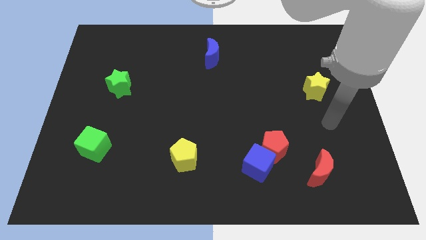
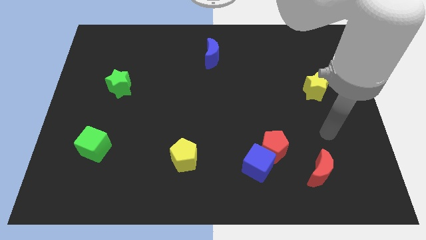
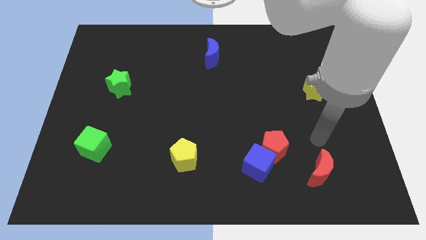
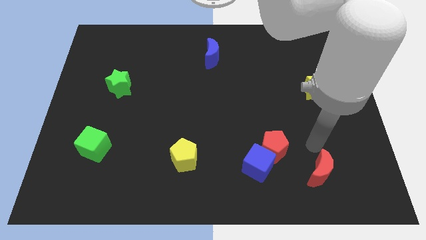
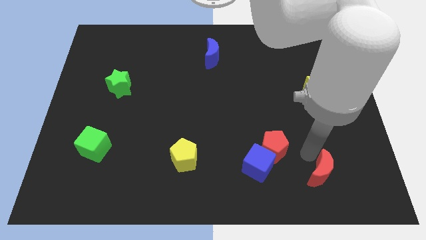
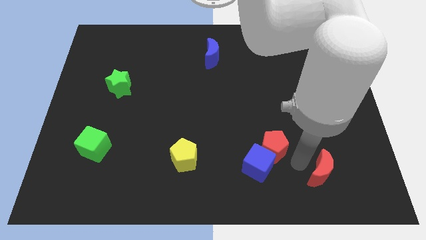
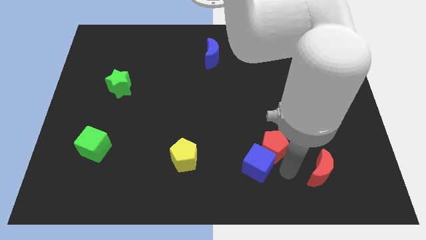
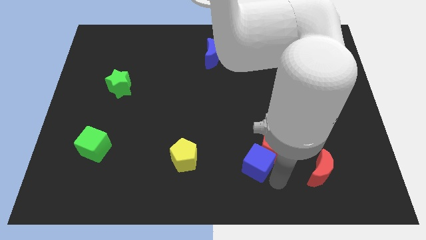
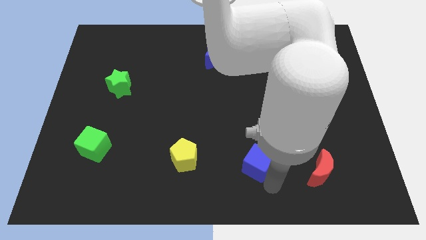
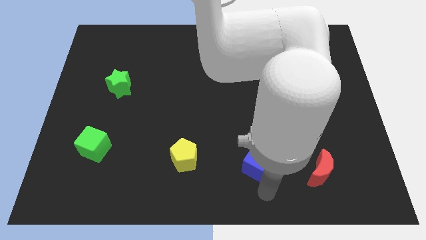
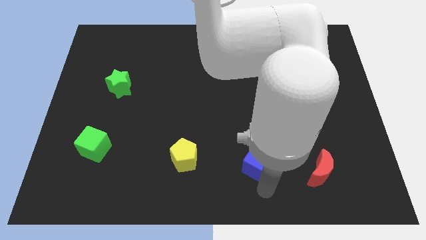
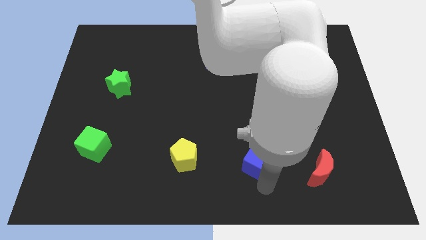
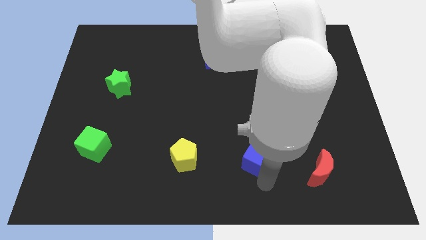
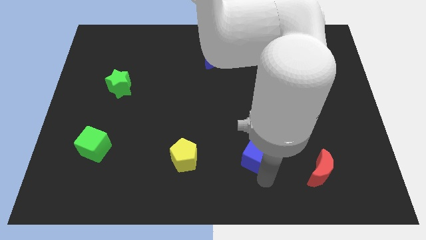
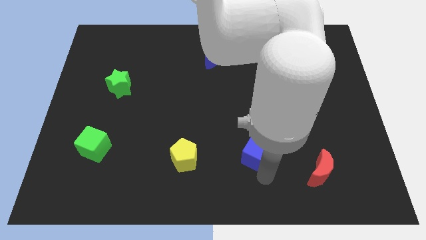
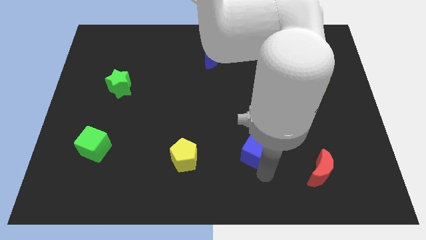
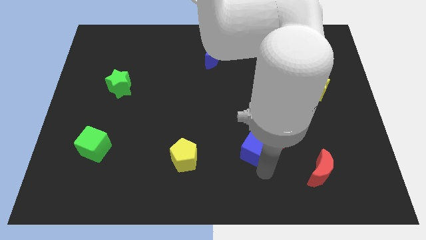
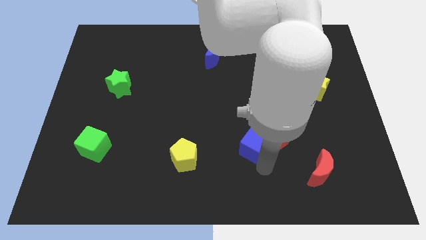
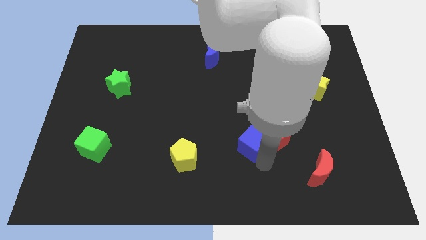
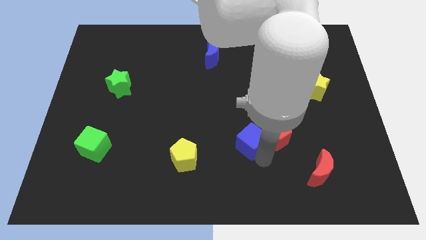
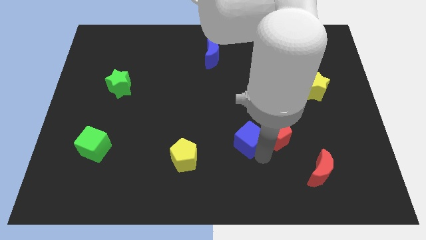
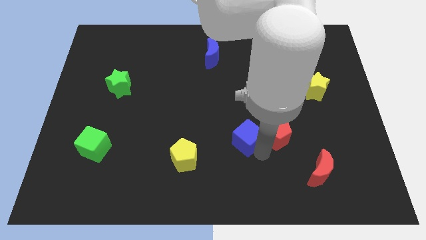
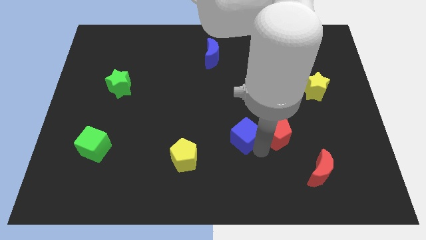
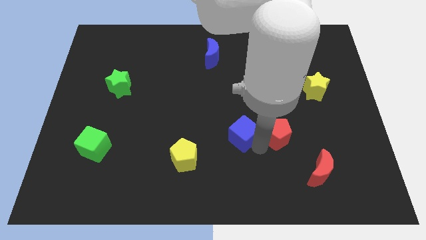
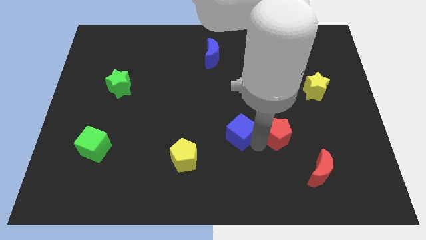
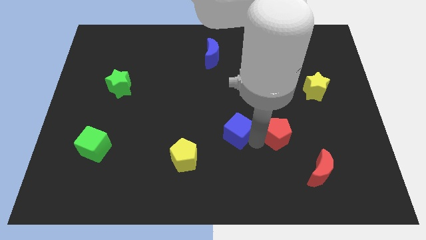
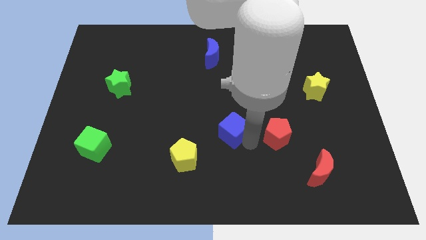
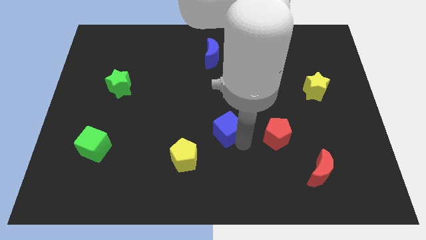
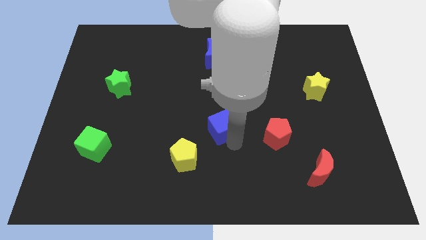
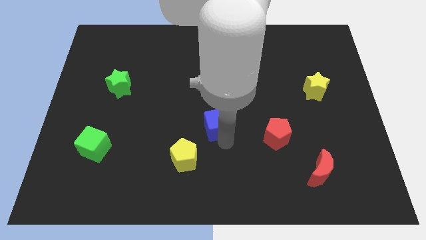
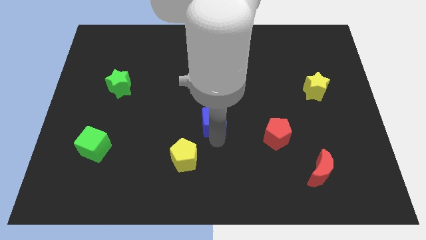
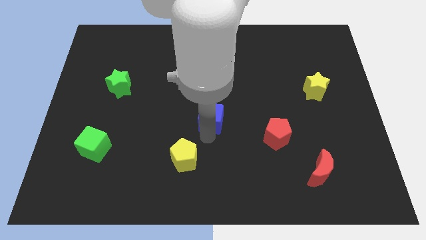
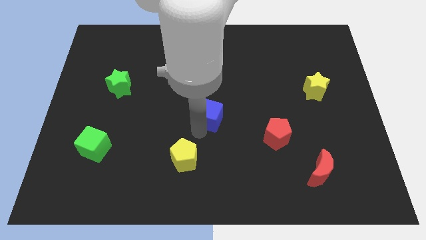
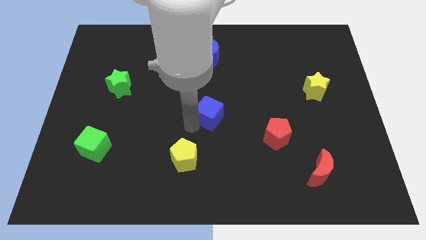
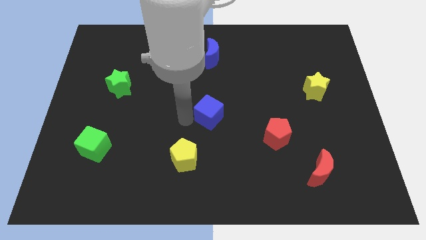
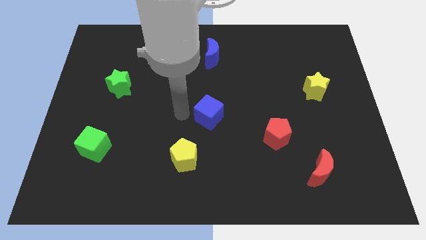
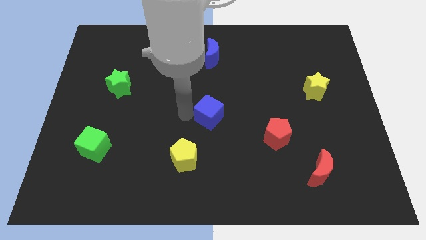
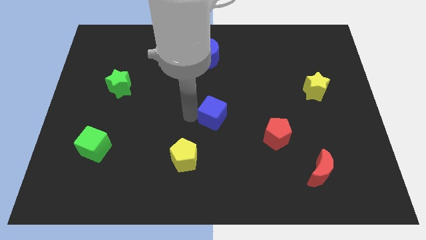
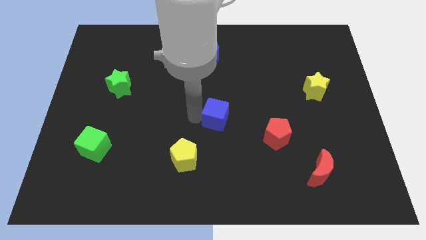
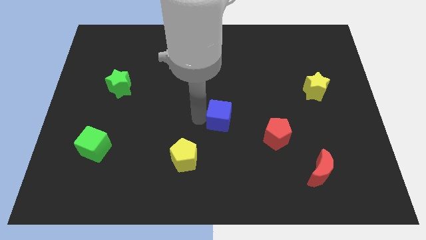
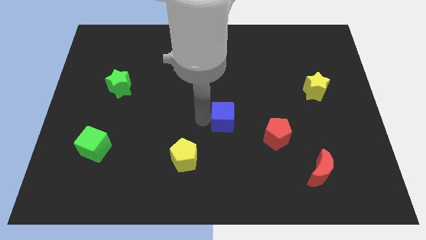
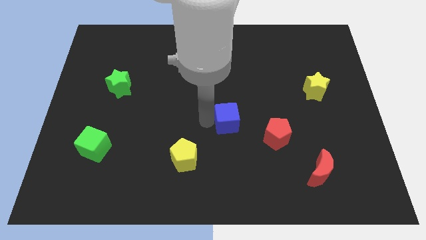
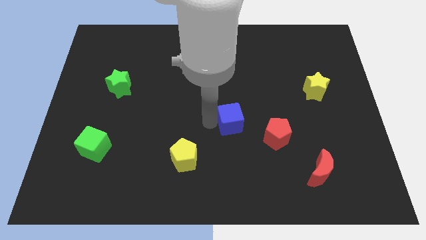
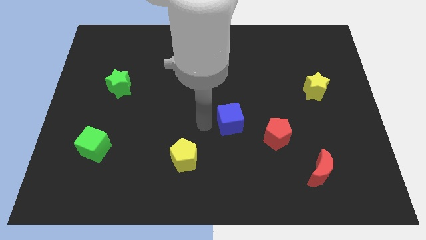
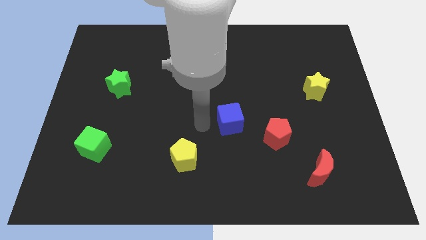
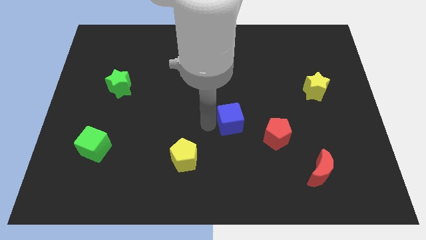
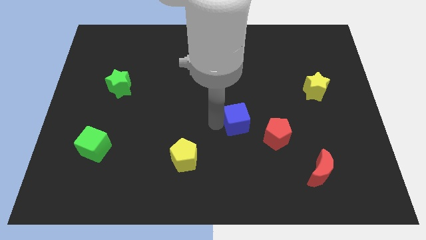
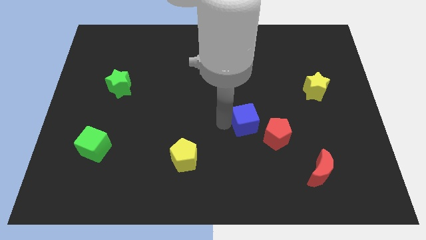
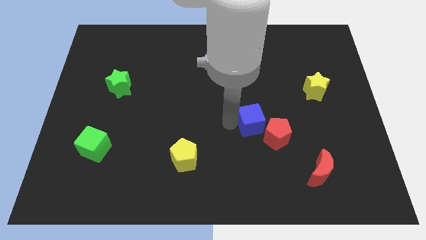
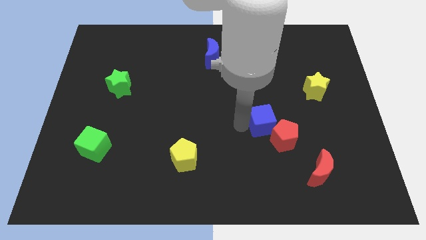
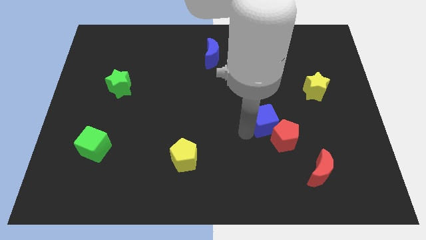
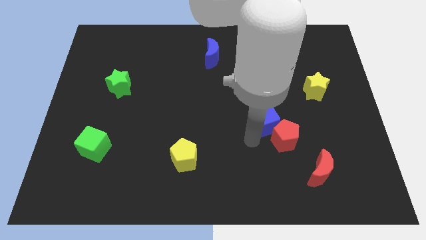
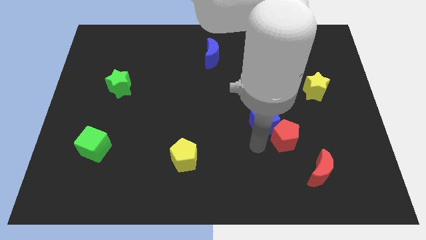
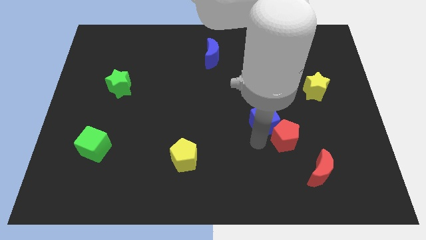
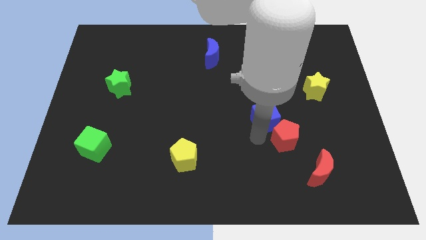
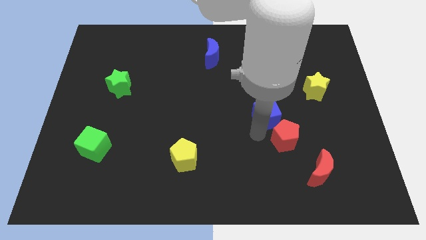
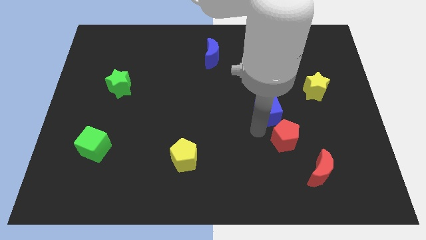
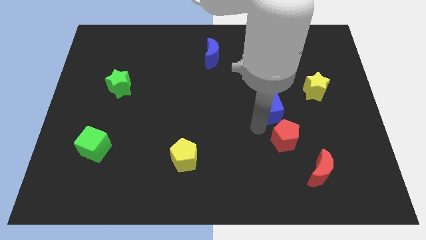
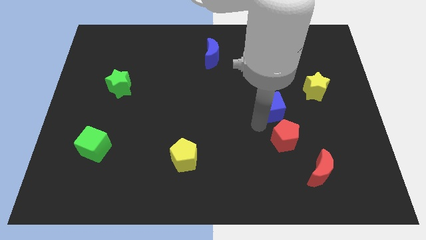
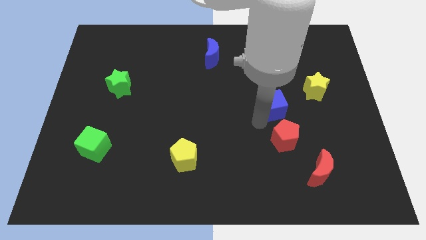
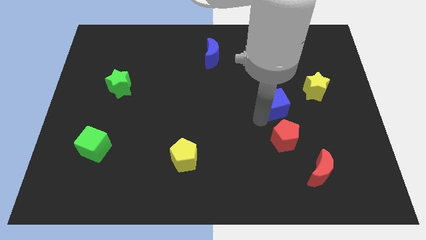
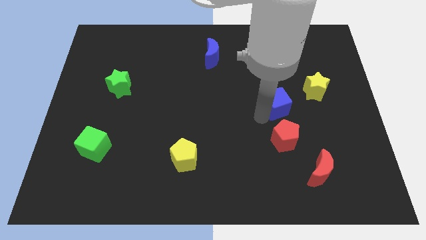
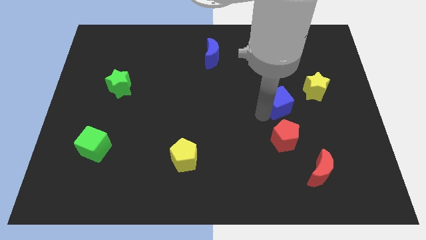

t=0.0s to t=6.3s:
put the blue cube left of the yellow star

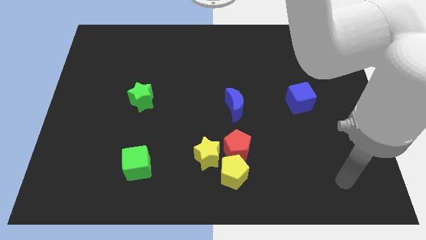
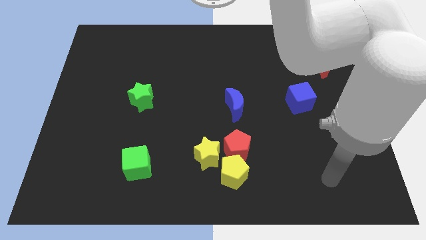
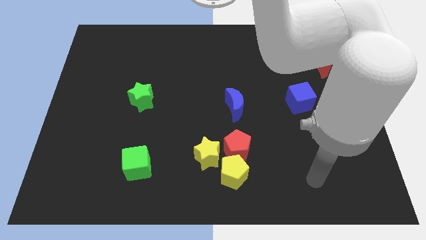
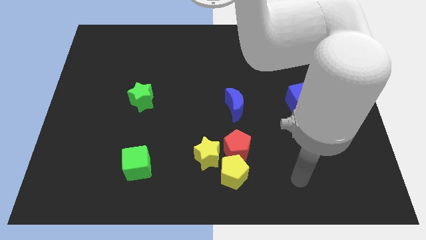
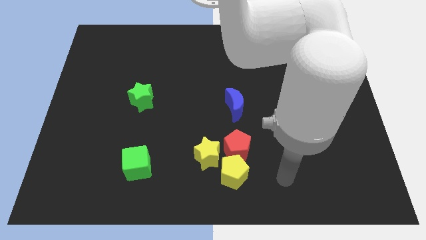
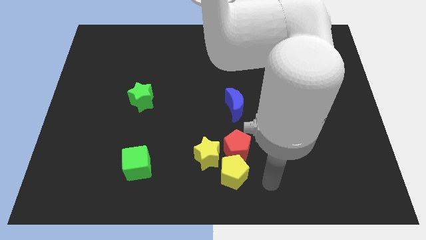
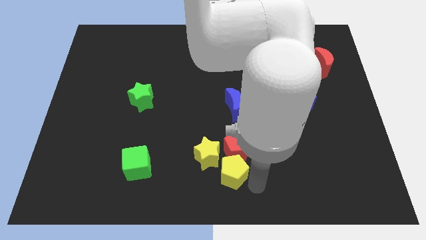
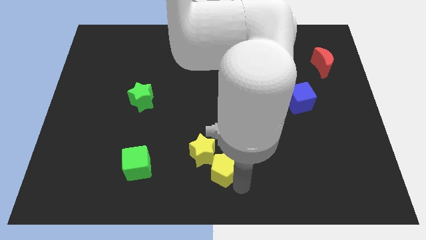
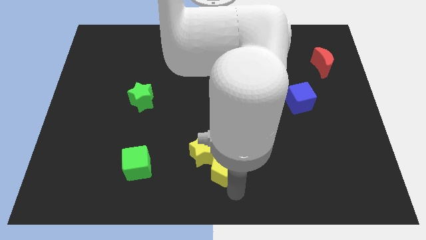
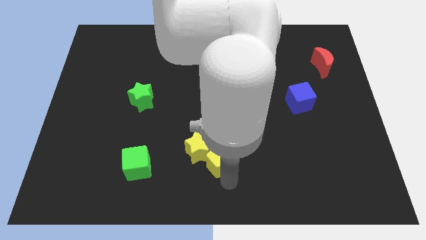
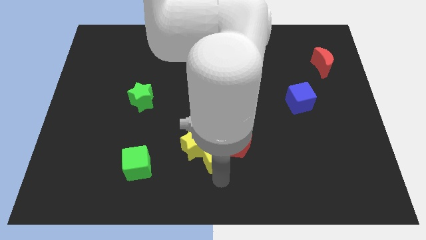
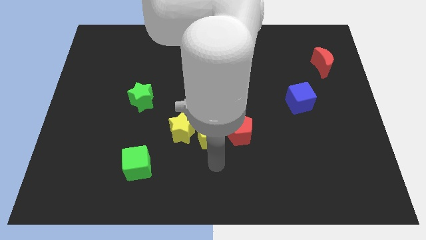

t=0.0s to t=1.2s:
move the red pentagon to the bottom right of the blue moon

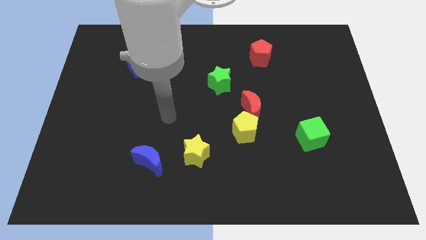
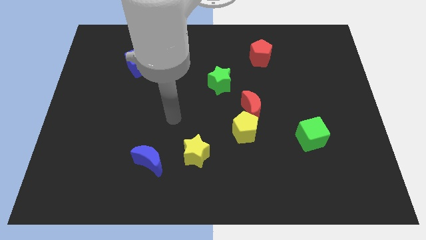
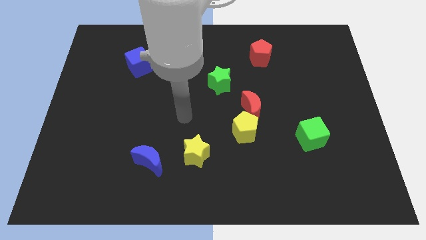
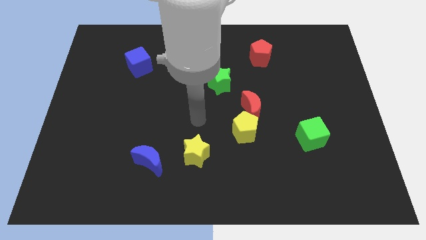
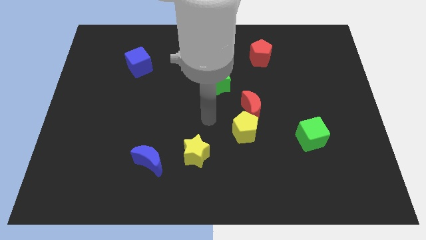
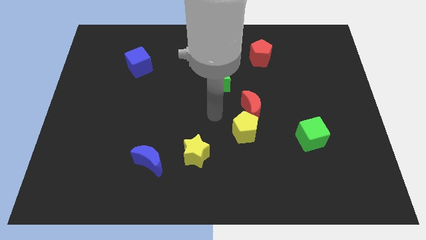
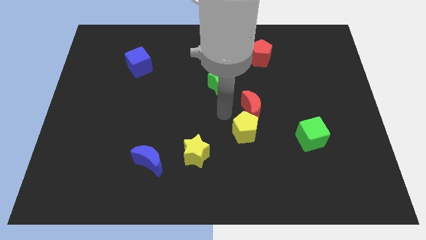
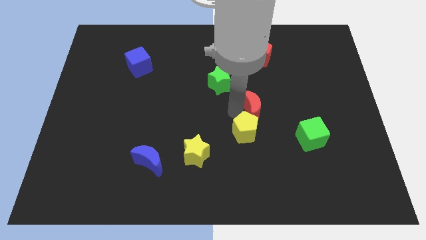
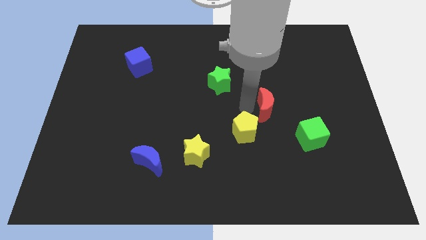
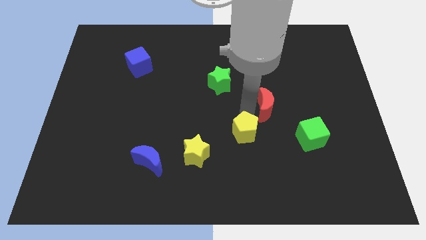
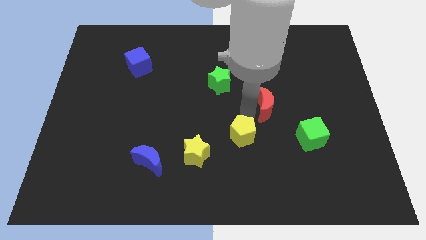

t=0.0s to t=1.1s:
push the yellow pentagon to the right of the yellow star
